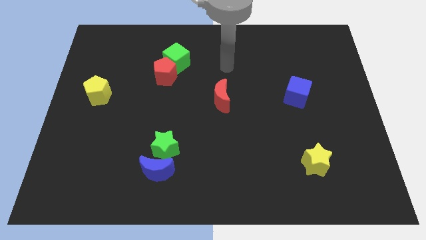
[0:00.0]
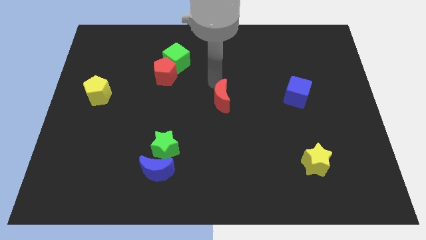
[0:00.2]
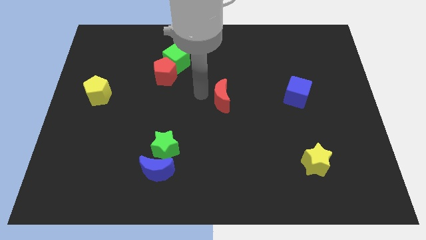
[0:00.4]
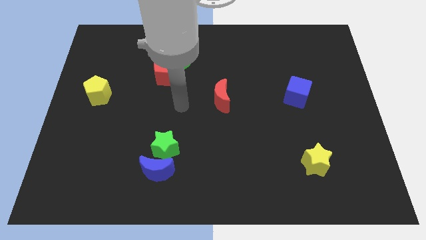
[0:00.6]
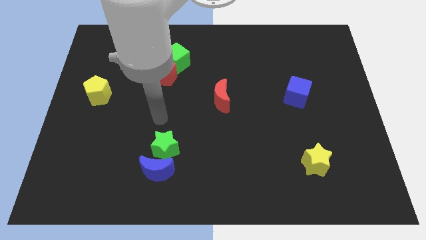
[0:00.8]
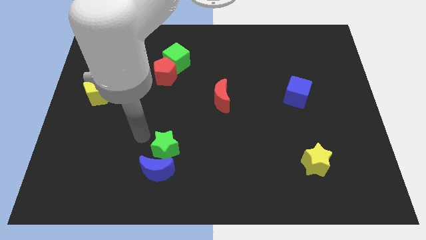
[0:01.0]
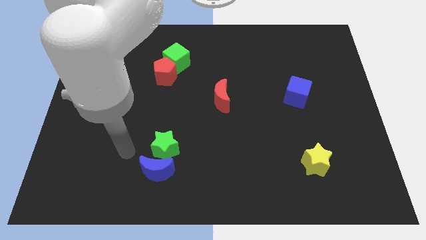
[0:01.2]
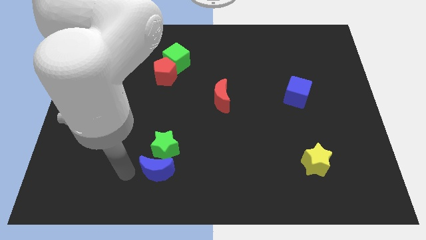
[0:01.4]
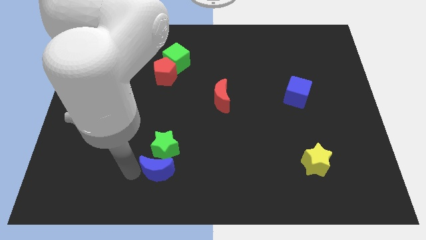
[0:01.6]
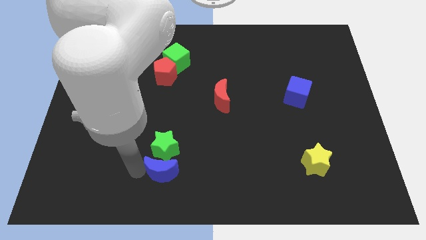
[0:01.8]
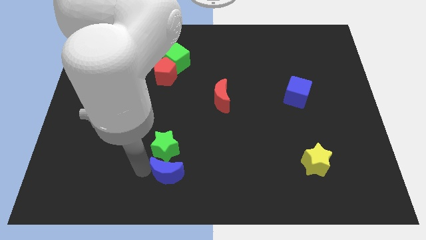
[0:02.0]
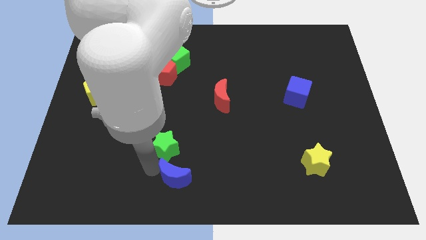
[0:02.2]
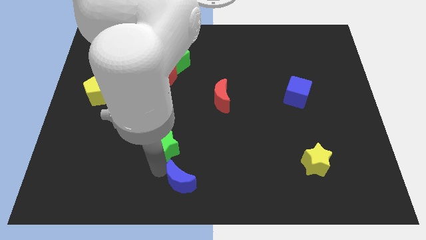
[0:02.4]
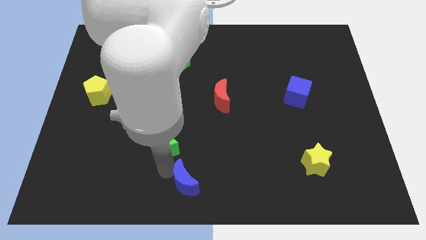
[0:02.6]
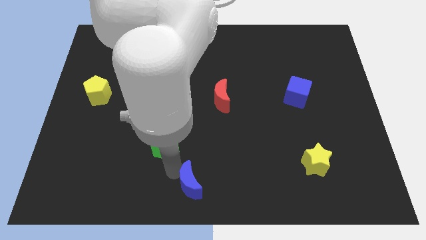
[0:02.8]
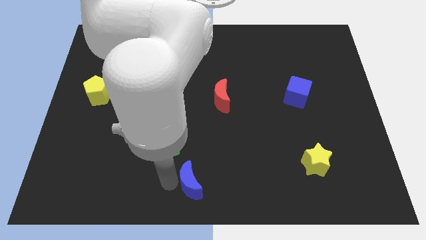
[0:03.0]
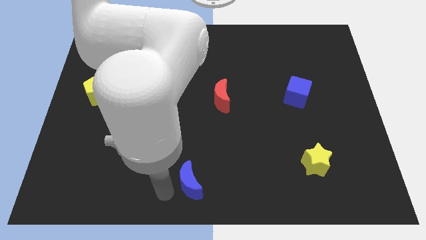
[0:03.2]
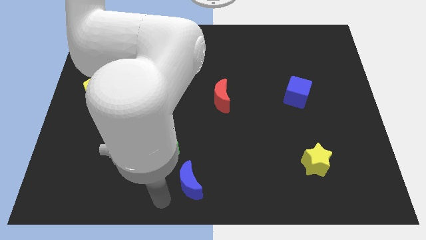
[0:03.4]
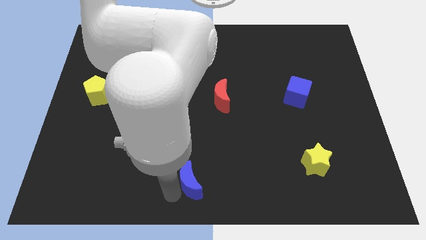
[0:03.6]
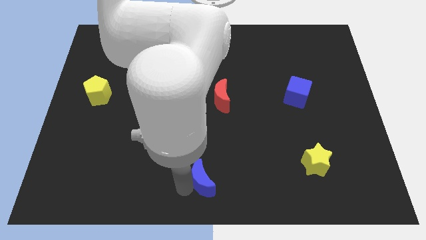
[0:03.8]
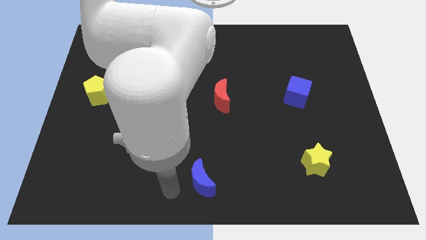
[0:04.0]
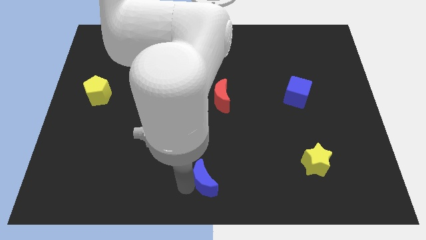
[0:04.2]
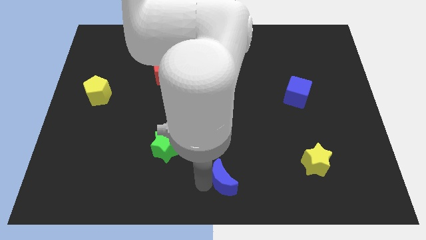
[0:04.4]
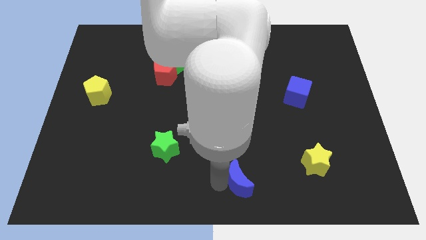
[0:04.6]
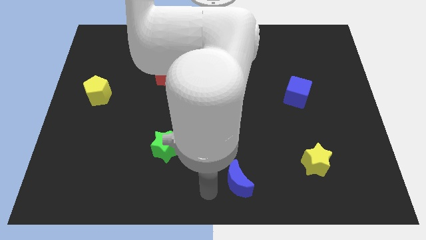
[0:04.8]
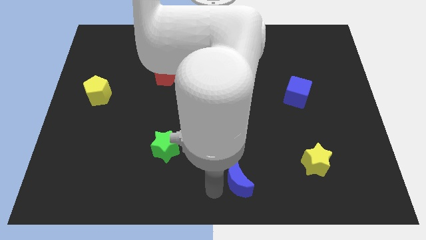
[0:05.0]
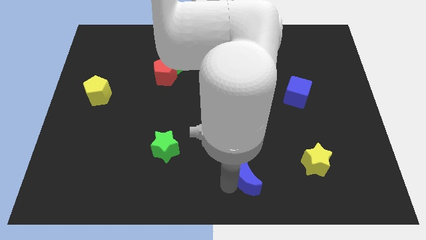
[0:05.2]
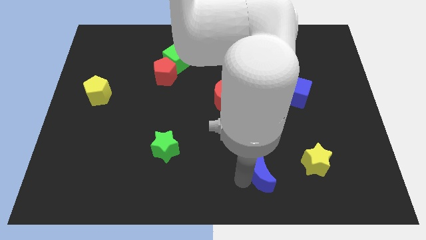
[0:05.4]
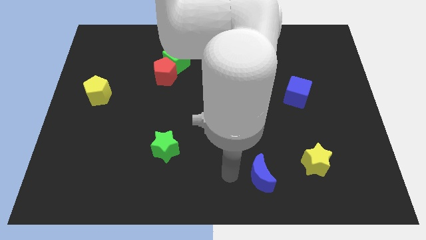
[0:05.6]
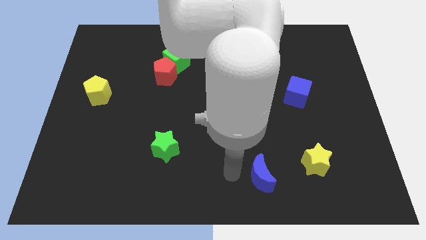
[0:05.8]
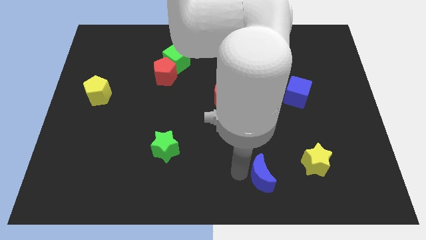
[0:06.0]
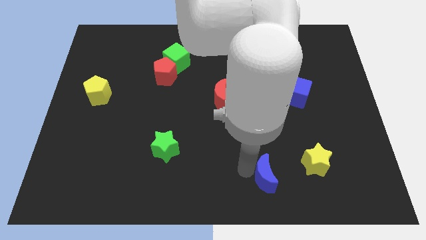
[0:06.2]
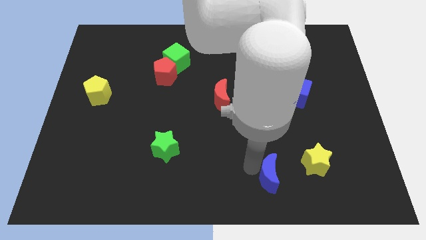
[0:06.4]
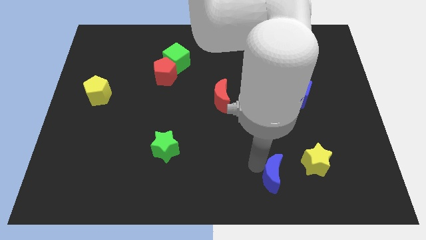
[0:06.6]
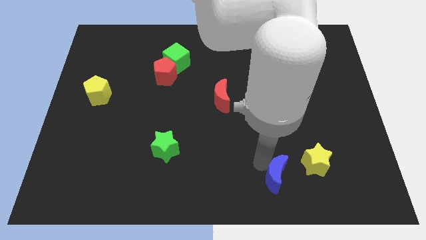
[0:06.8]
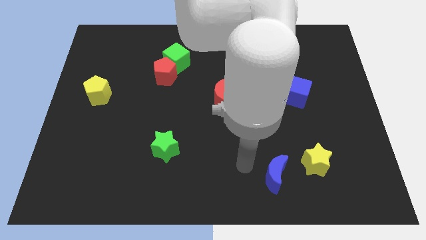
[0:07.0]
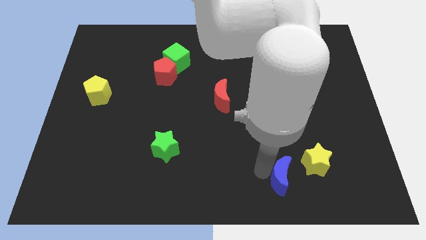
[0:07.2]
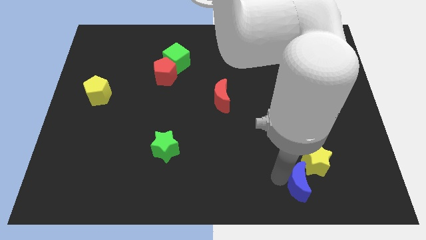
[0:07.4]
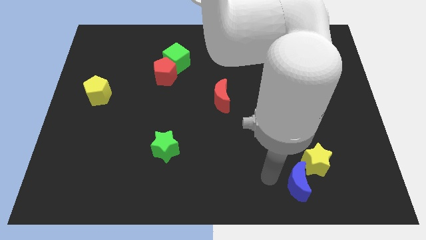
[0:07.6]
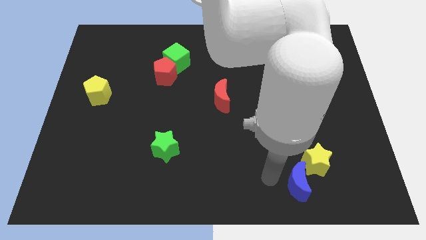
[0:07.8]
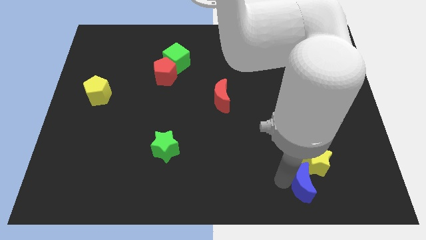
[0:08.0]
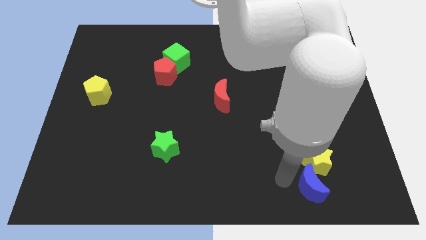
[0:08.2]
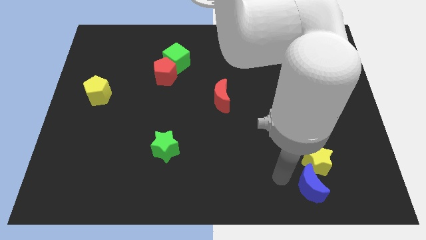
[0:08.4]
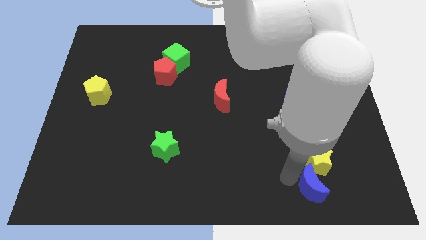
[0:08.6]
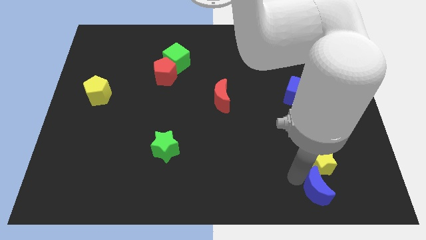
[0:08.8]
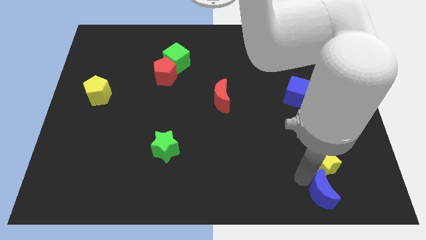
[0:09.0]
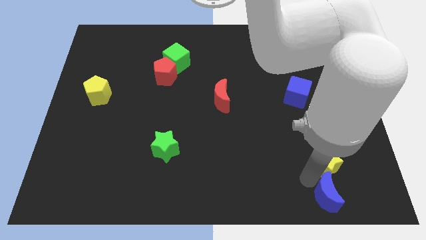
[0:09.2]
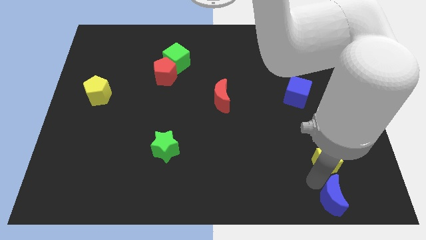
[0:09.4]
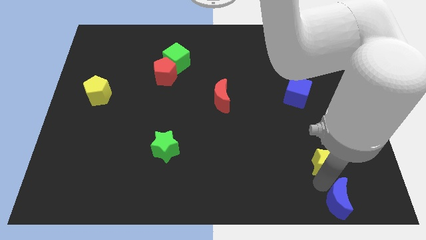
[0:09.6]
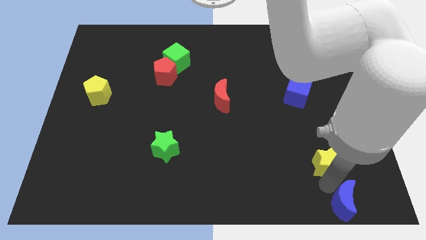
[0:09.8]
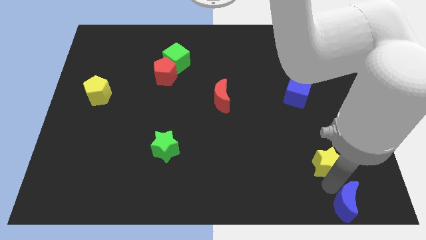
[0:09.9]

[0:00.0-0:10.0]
slide the blue moon to the lower right corner

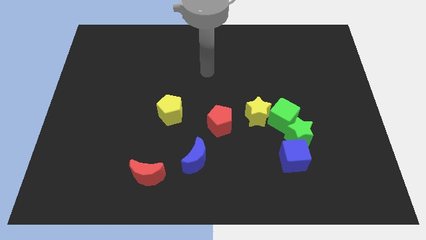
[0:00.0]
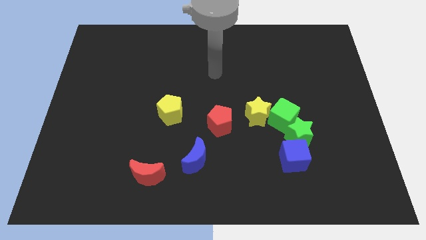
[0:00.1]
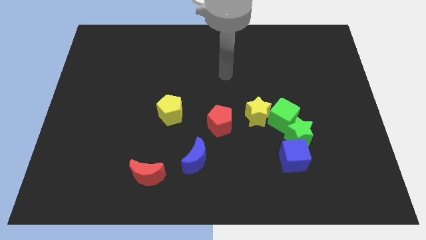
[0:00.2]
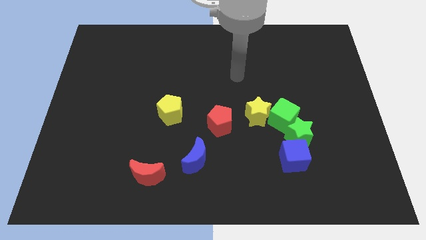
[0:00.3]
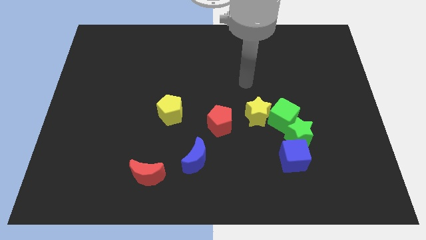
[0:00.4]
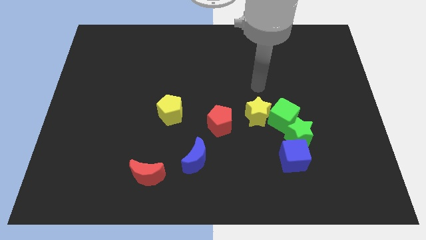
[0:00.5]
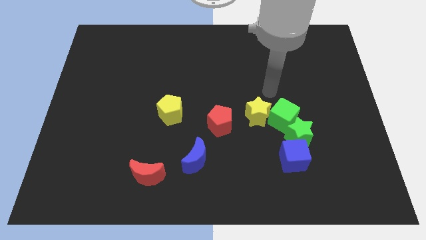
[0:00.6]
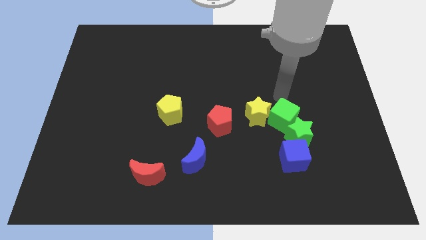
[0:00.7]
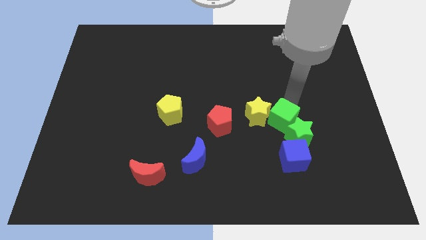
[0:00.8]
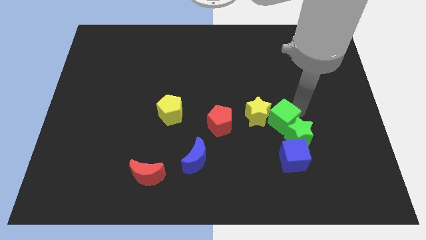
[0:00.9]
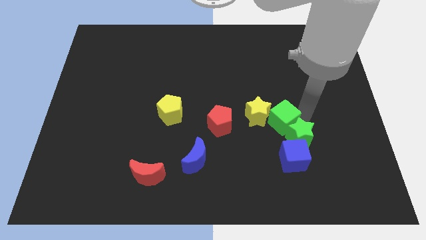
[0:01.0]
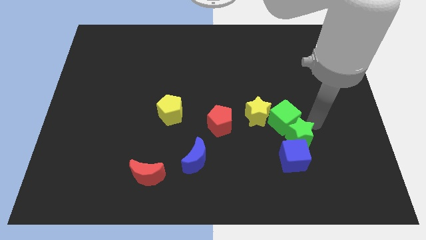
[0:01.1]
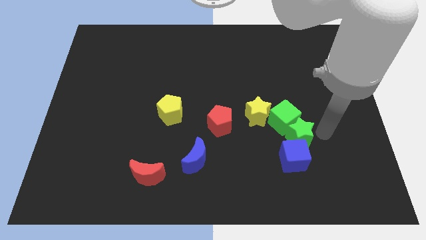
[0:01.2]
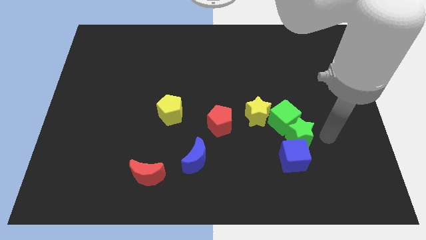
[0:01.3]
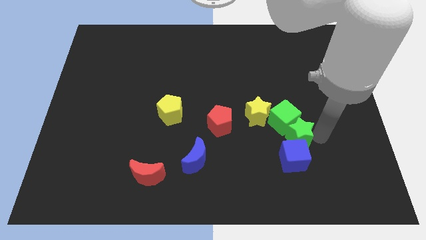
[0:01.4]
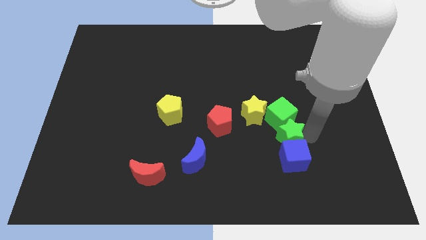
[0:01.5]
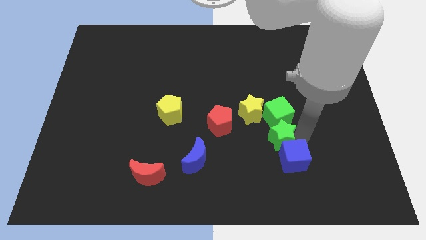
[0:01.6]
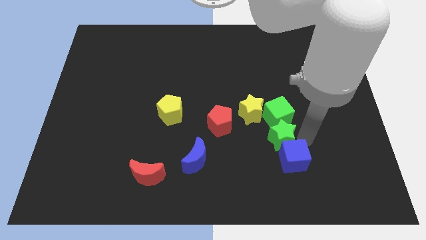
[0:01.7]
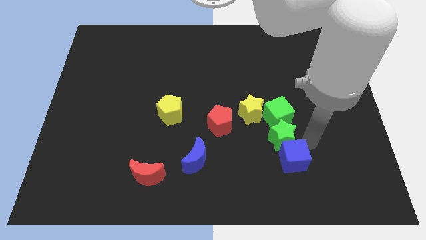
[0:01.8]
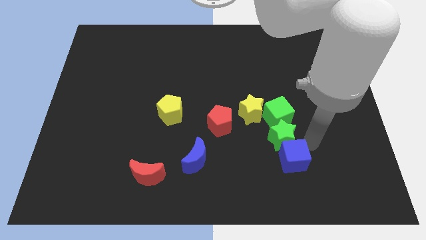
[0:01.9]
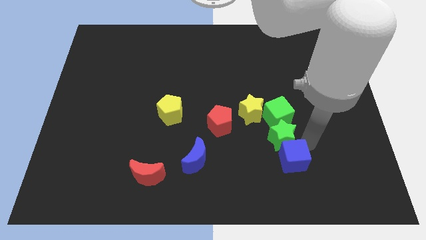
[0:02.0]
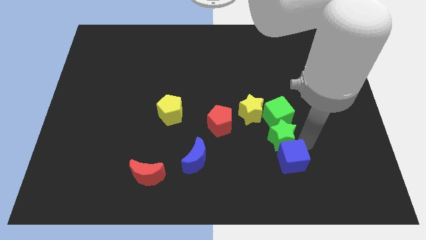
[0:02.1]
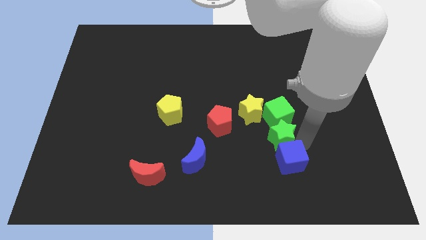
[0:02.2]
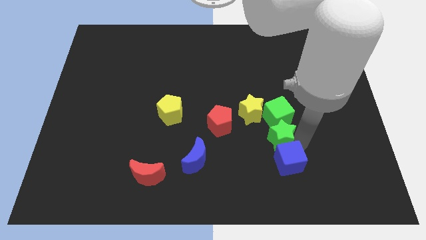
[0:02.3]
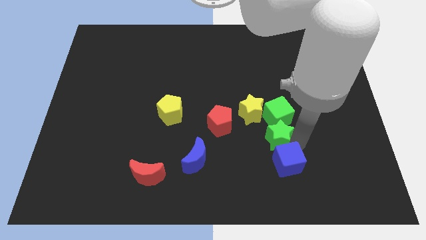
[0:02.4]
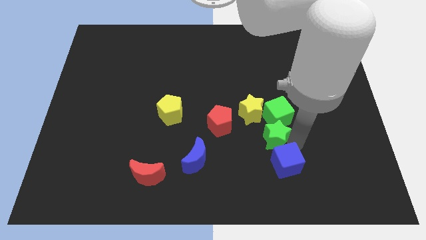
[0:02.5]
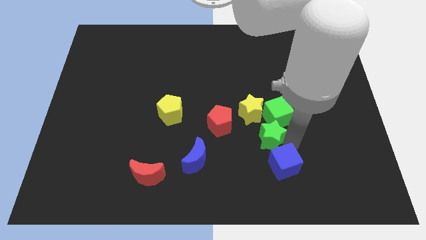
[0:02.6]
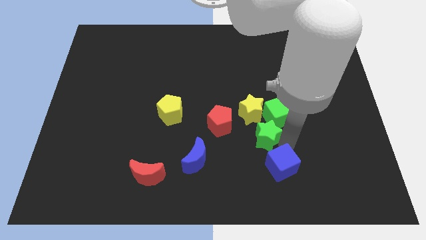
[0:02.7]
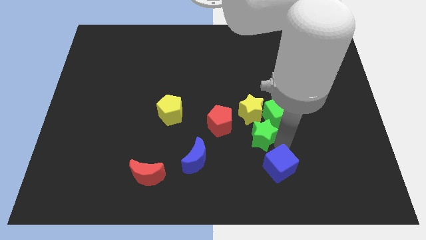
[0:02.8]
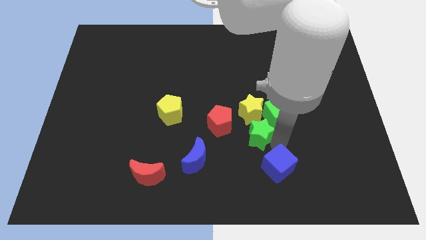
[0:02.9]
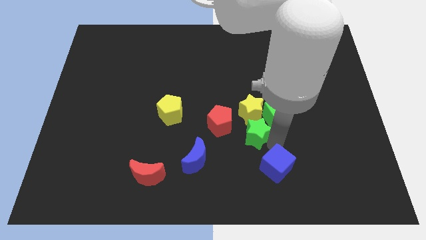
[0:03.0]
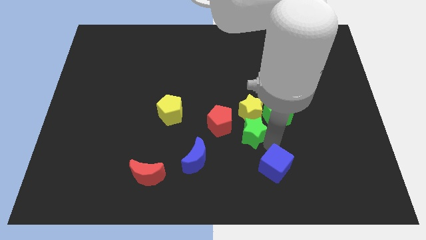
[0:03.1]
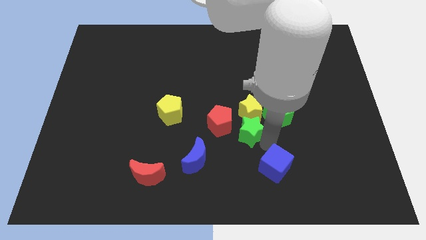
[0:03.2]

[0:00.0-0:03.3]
move the green star to the center
